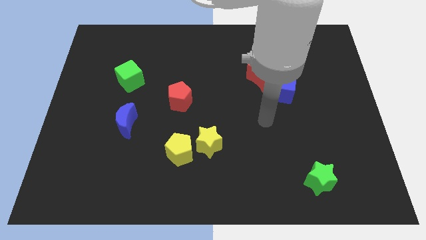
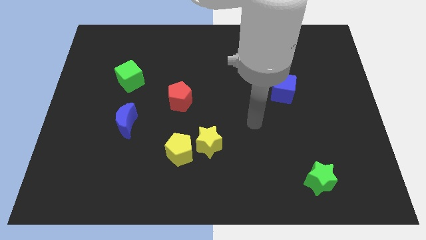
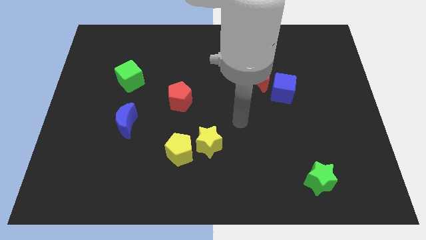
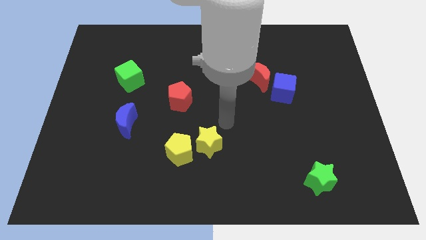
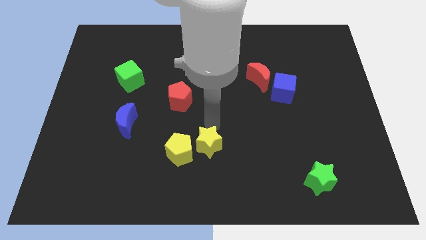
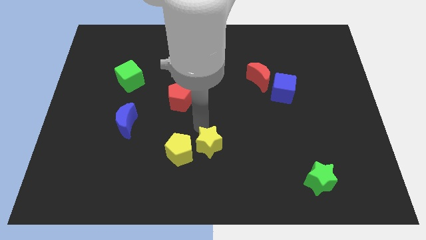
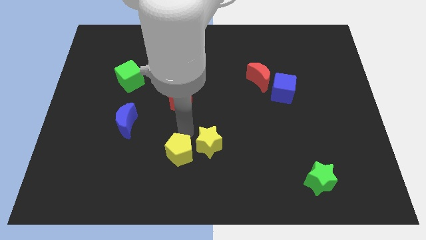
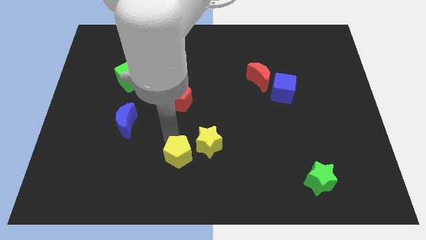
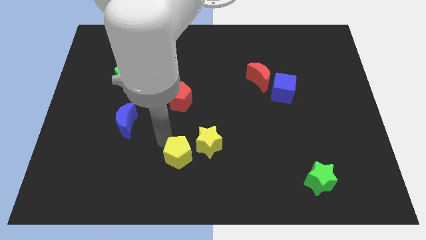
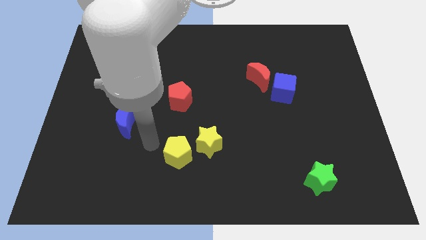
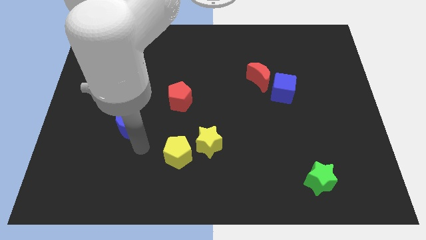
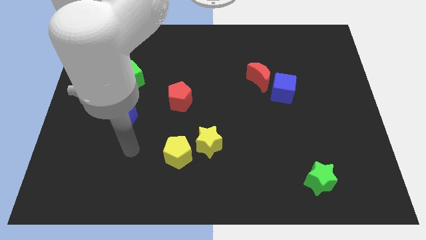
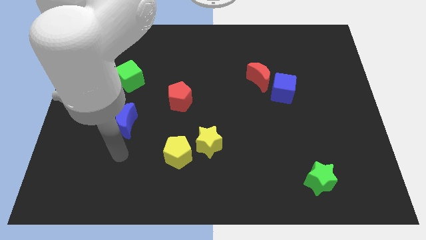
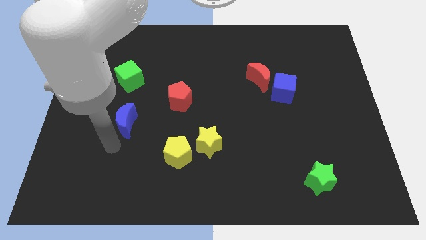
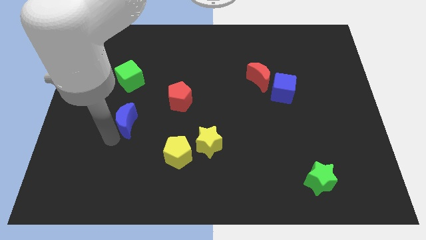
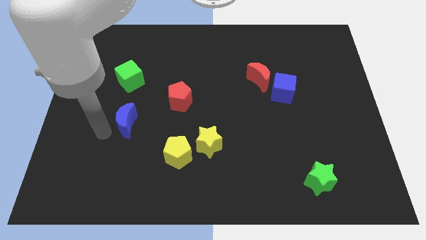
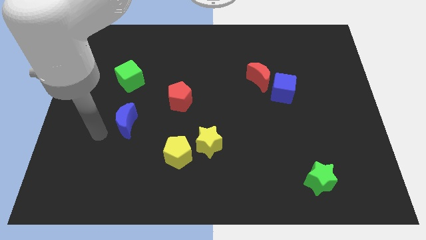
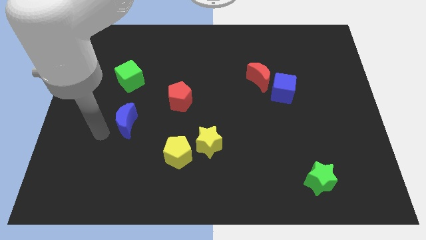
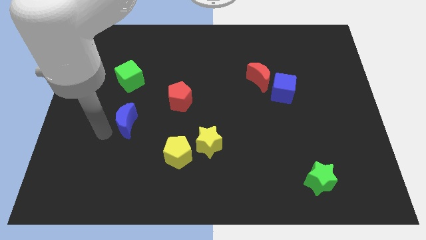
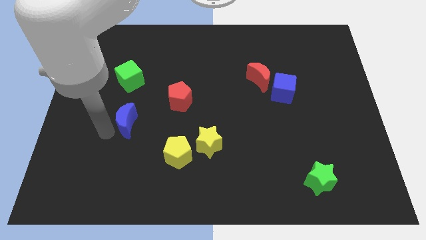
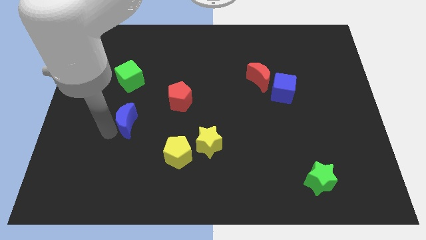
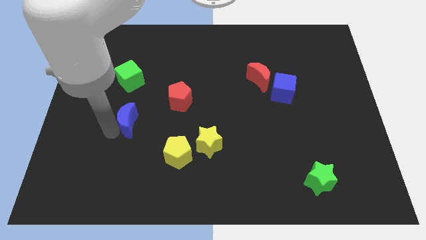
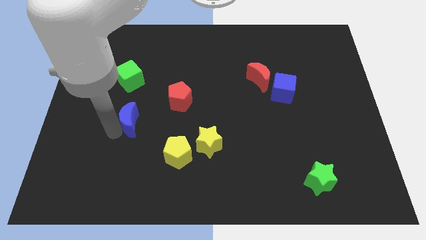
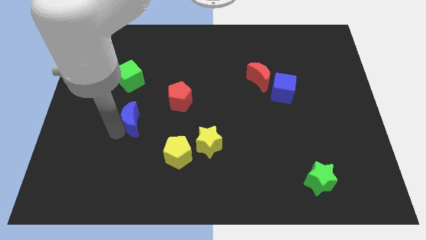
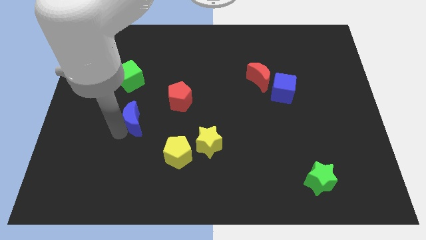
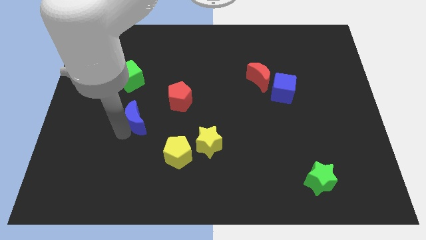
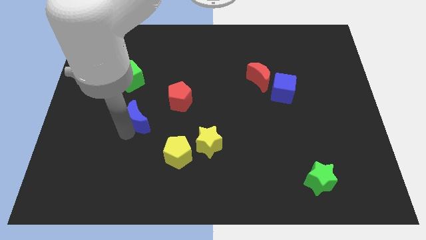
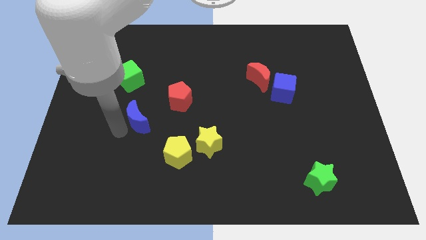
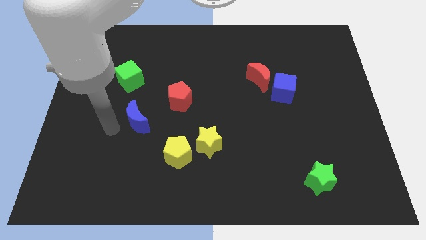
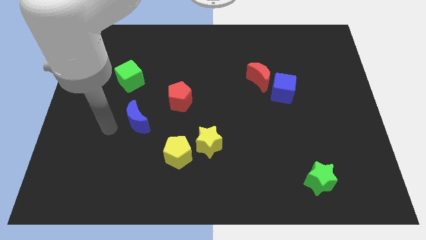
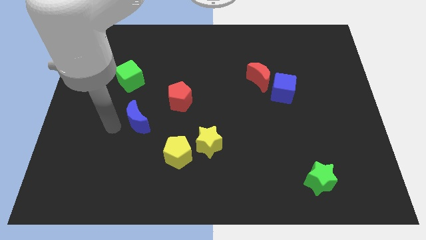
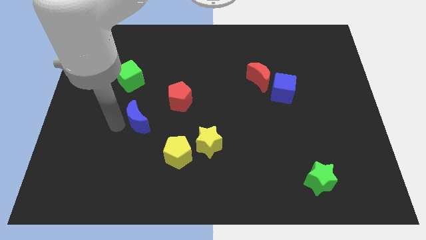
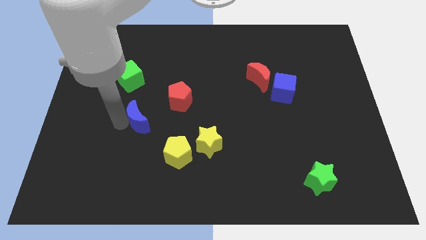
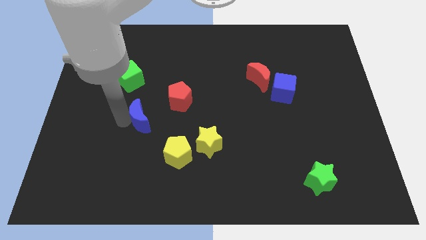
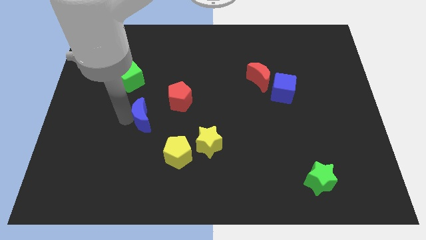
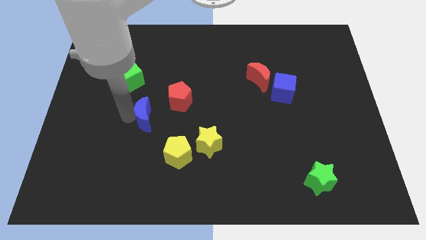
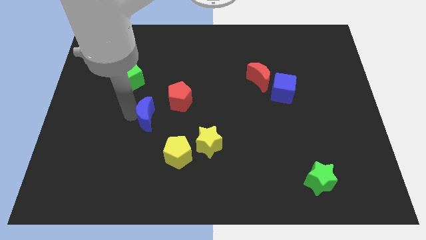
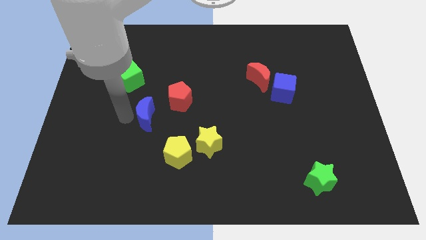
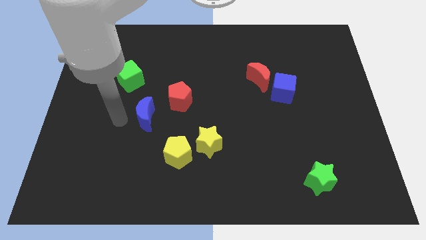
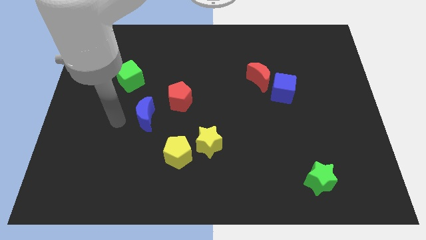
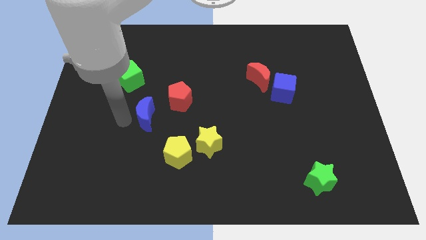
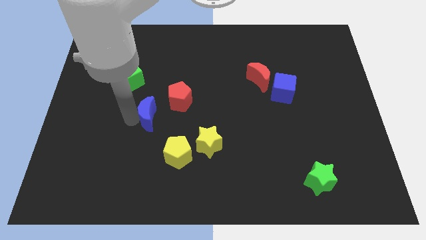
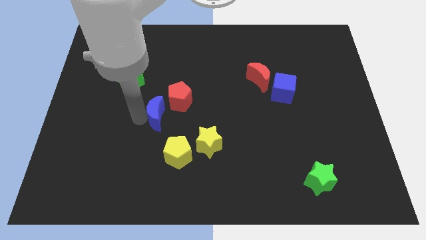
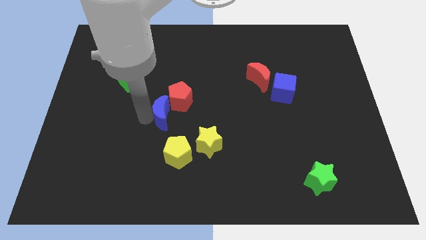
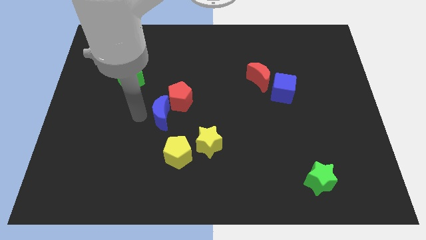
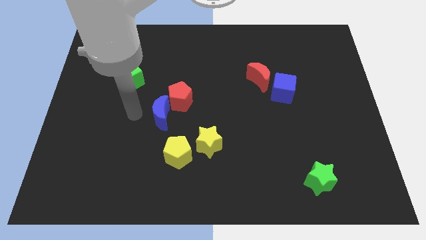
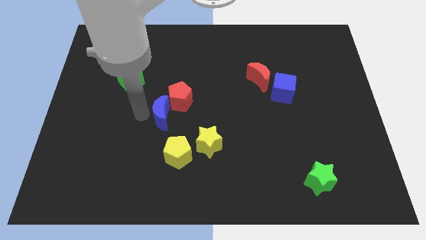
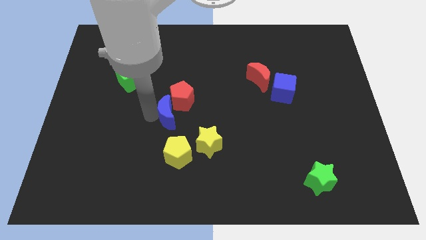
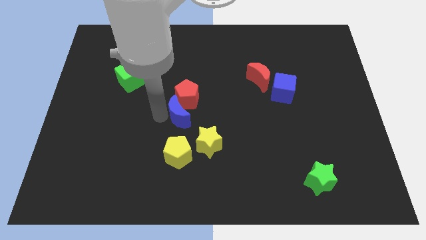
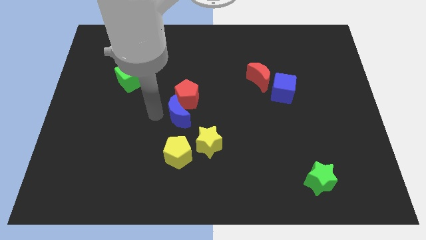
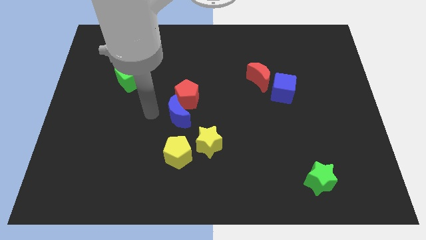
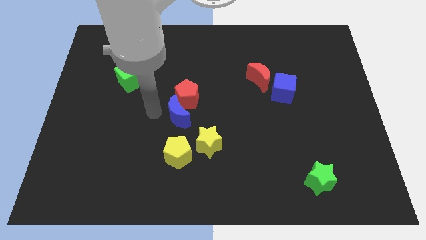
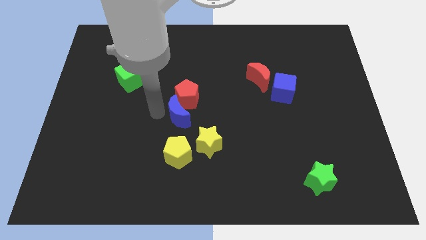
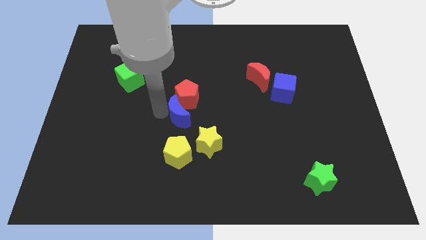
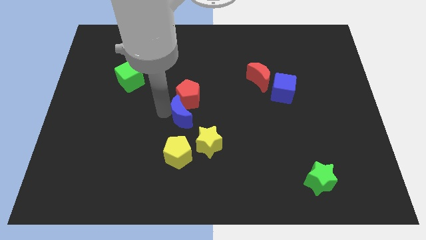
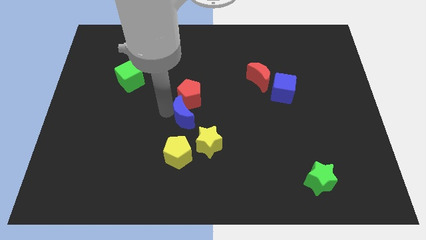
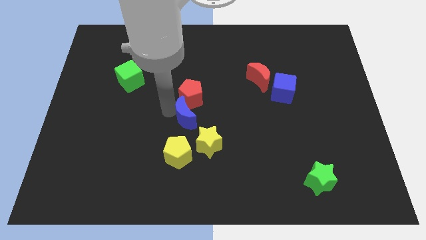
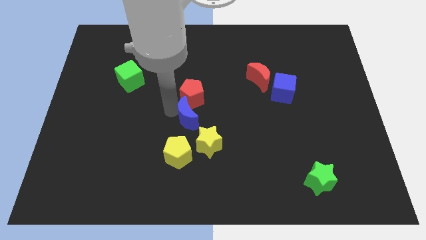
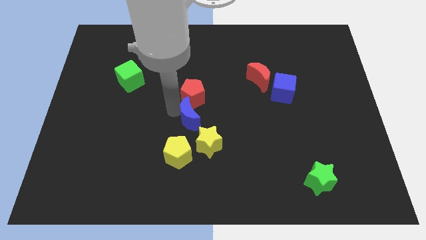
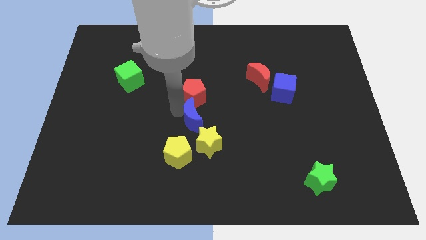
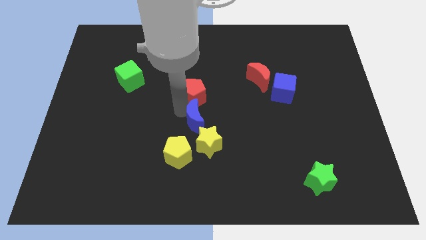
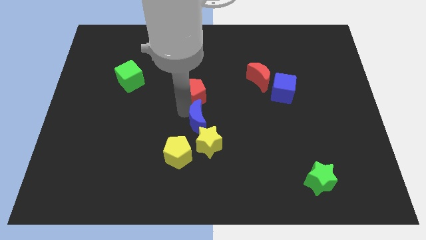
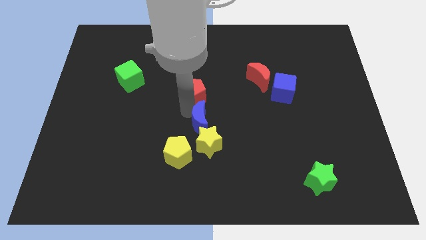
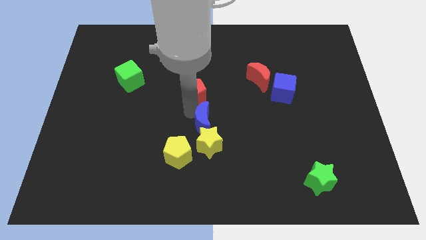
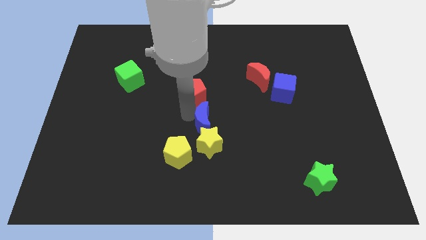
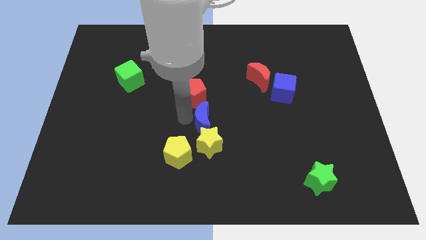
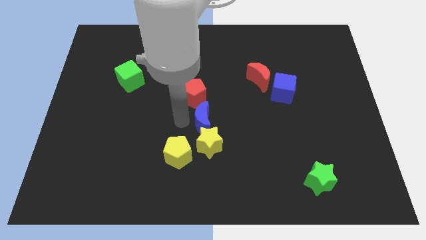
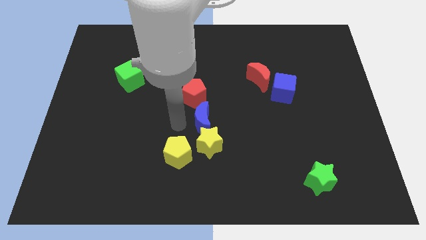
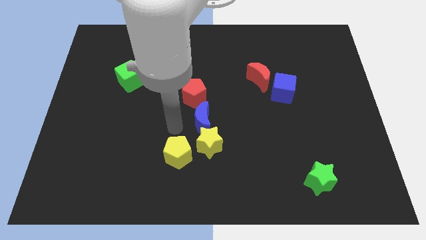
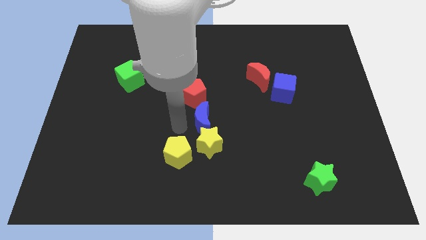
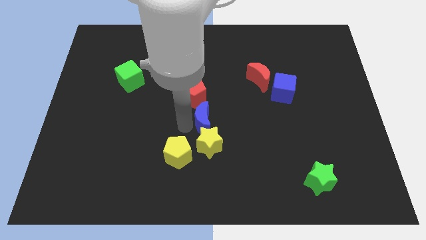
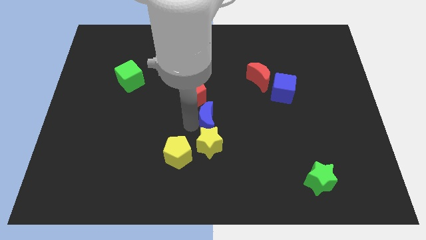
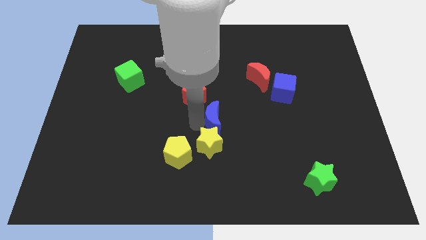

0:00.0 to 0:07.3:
move the blue moon to the right

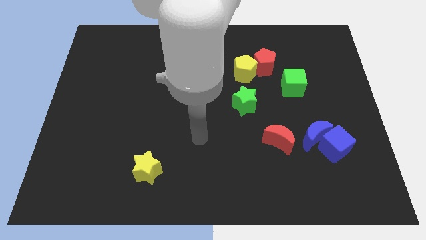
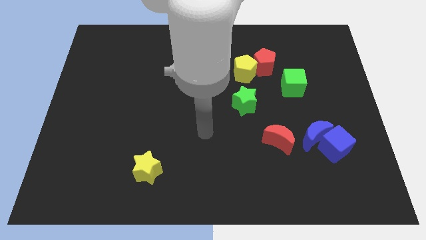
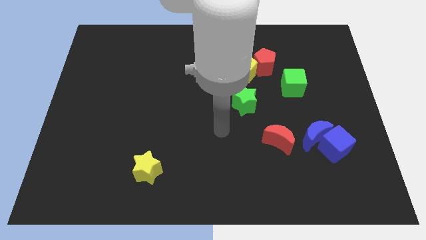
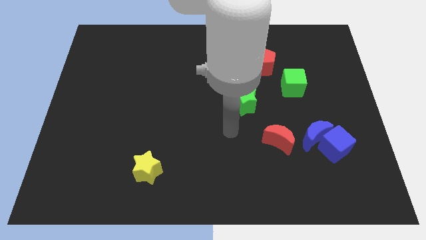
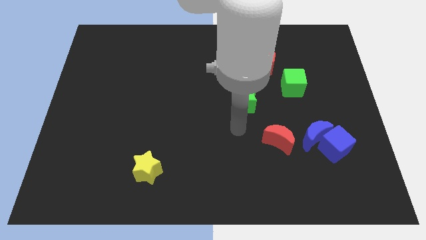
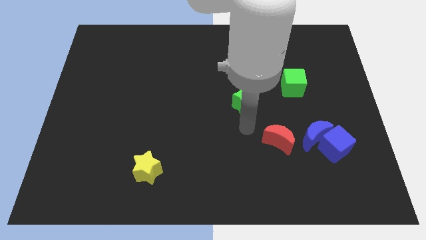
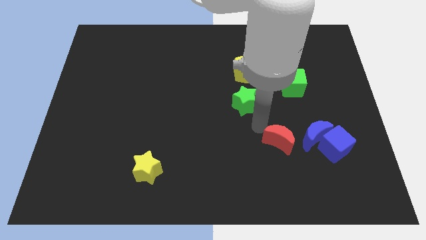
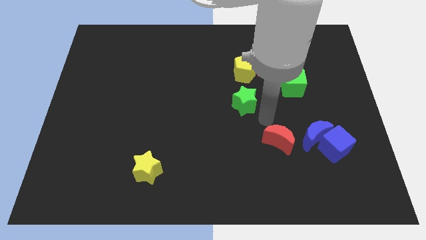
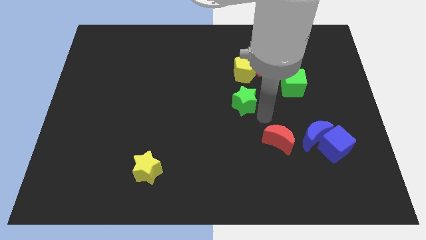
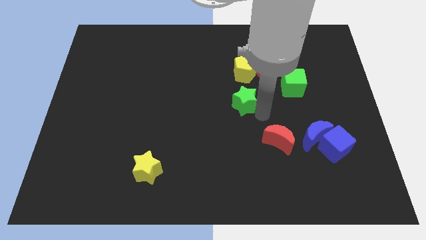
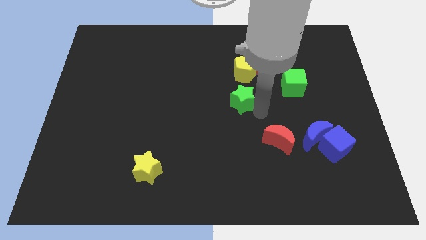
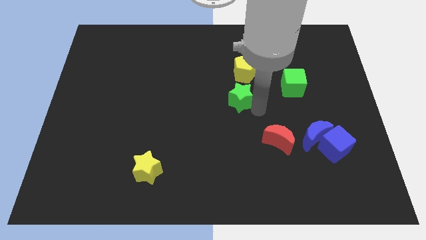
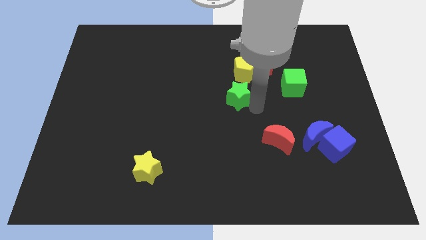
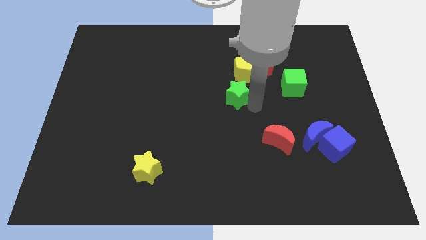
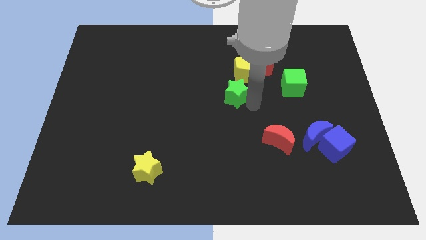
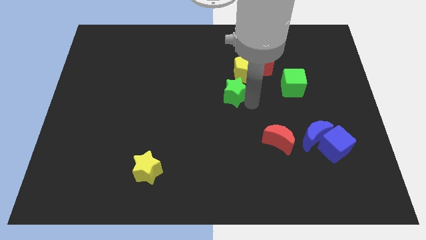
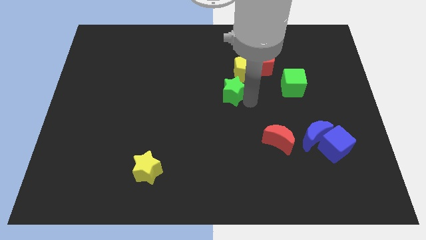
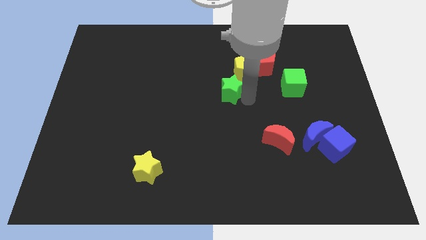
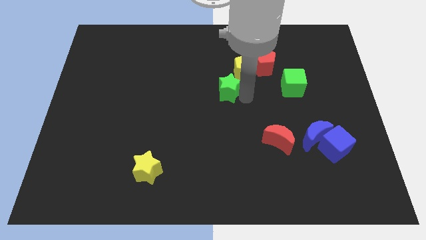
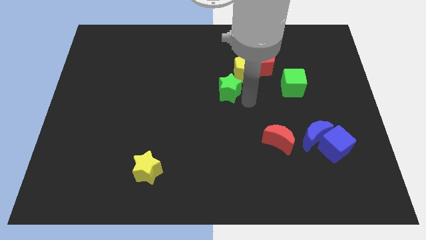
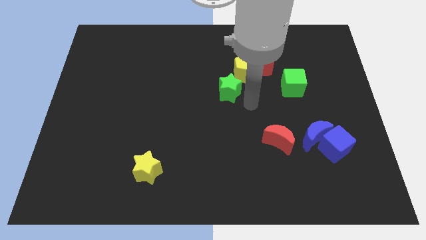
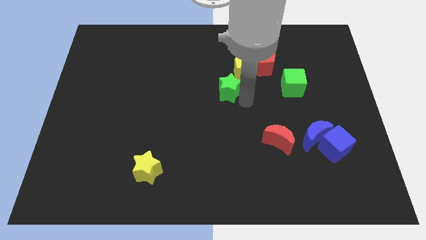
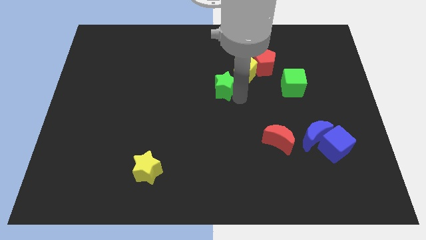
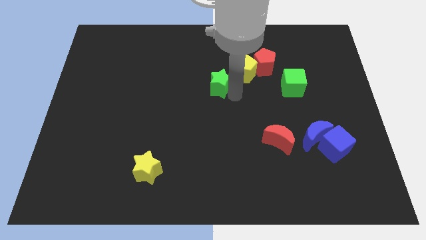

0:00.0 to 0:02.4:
move the green star upwards and to the left diagonally a little bit
